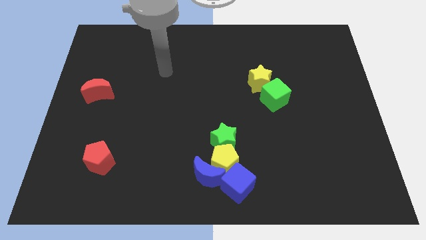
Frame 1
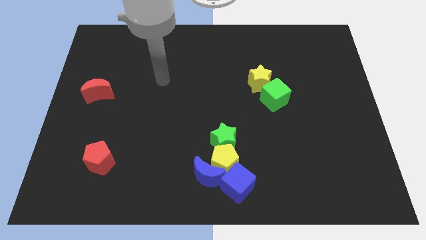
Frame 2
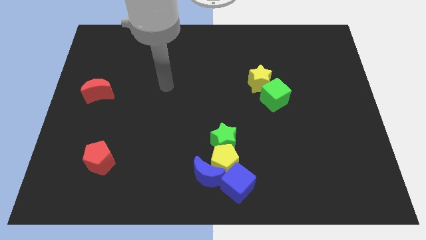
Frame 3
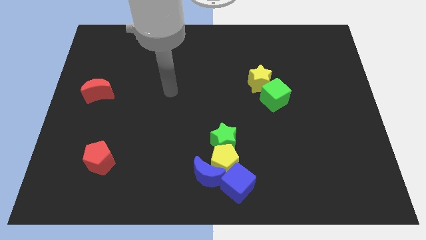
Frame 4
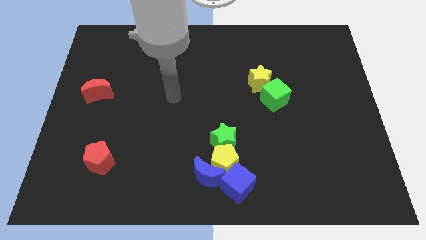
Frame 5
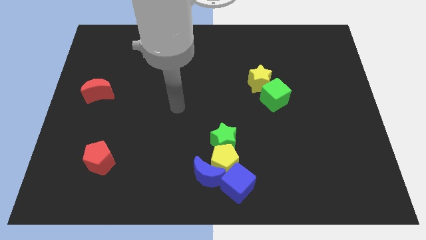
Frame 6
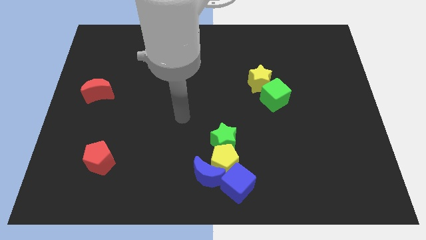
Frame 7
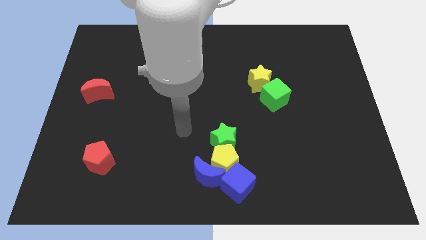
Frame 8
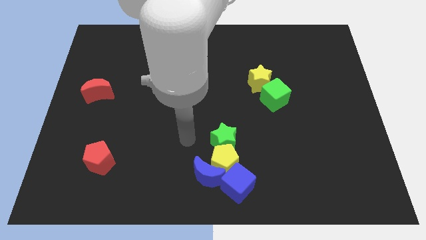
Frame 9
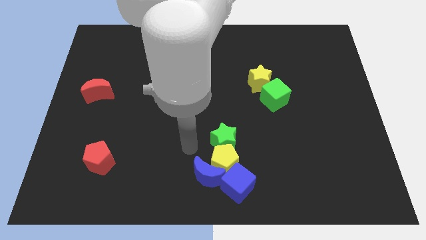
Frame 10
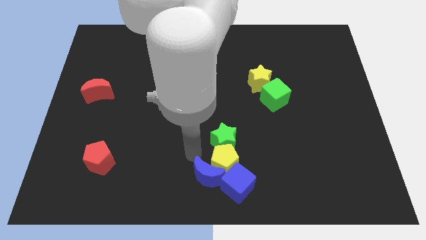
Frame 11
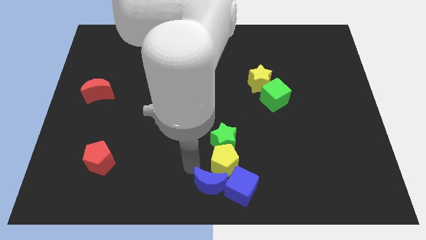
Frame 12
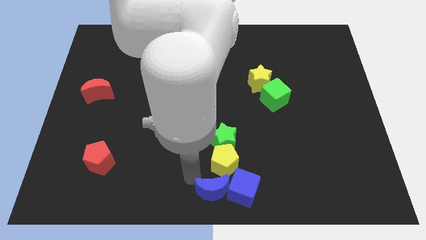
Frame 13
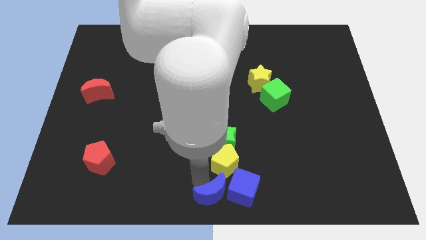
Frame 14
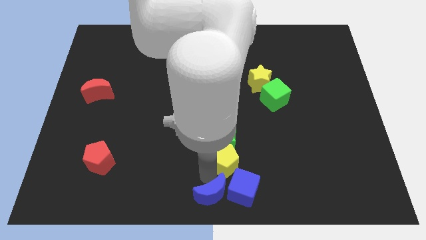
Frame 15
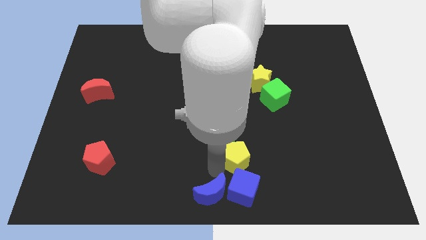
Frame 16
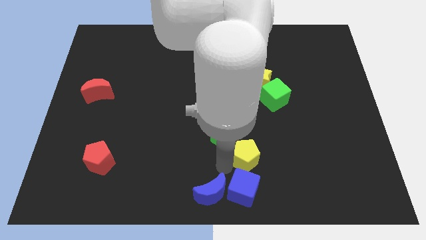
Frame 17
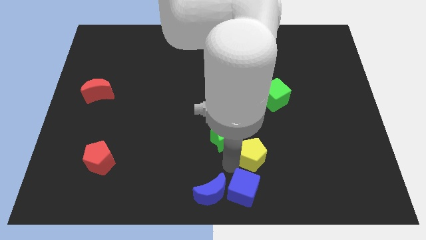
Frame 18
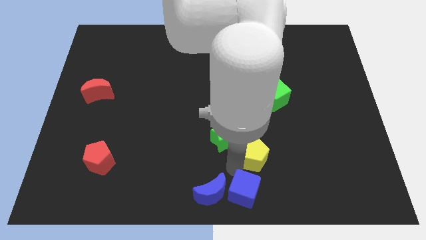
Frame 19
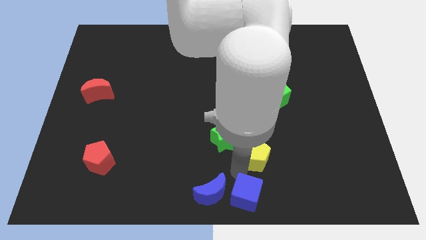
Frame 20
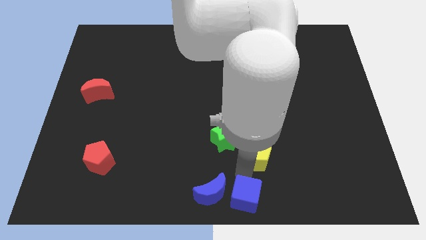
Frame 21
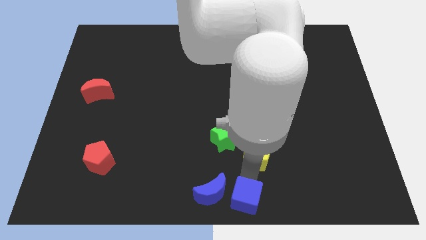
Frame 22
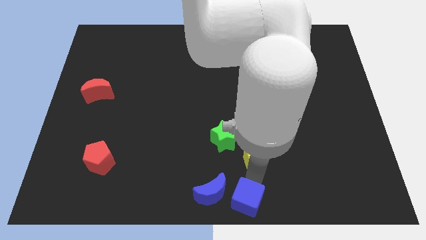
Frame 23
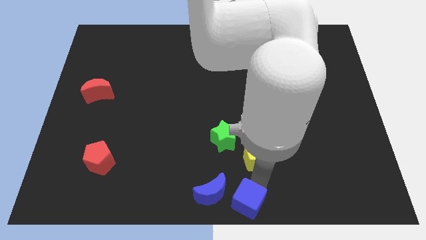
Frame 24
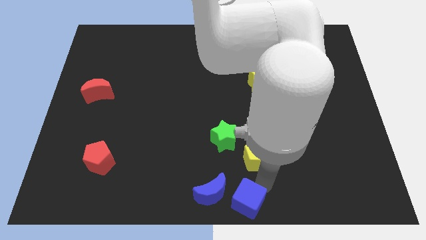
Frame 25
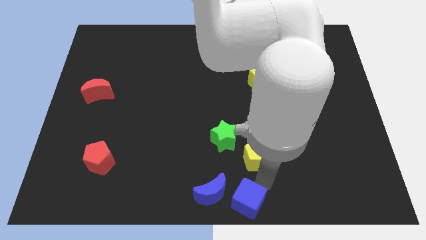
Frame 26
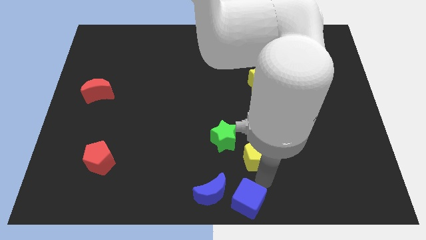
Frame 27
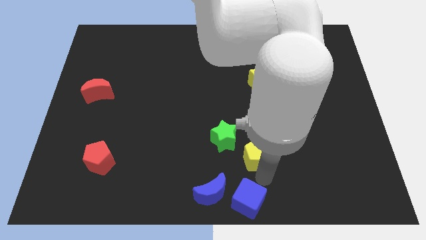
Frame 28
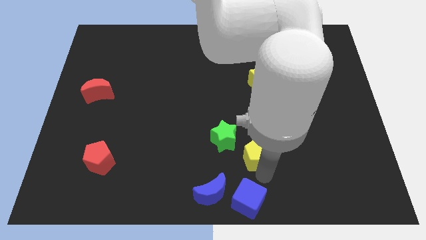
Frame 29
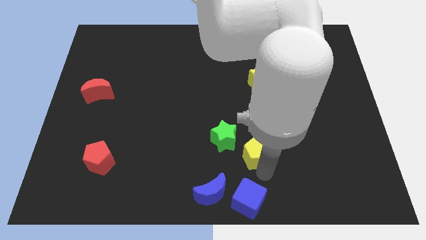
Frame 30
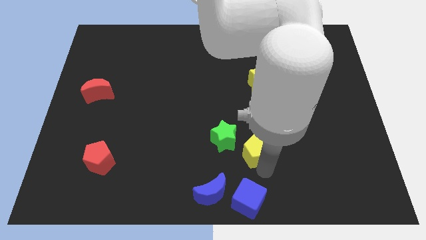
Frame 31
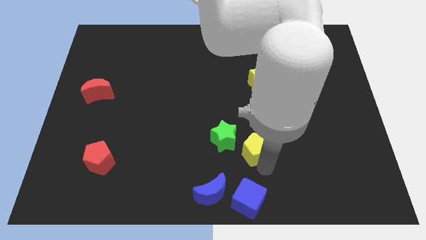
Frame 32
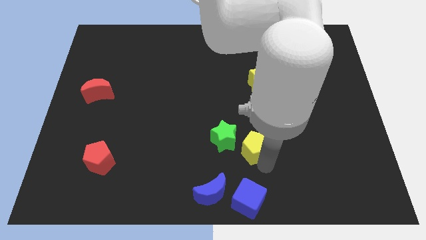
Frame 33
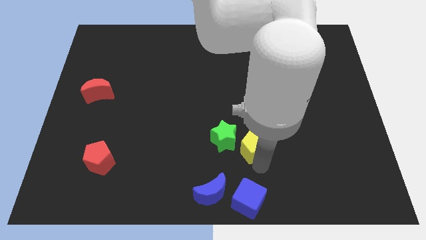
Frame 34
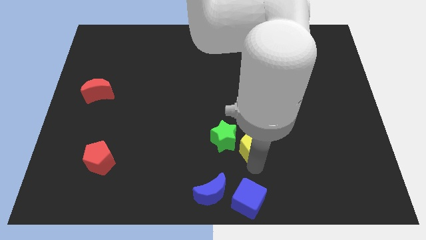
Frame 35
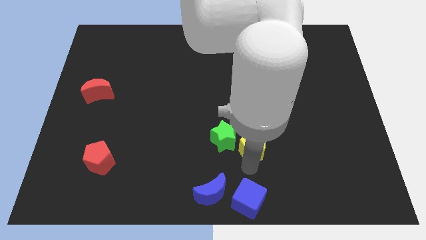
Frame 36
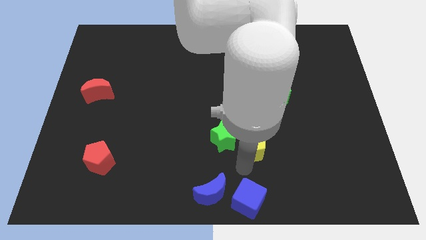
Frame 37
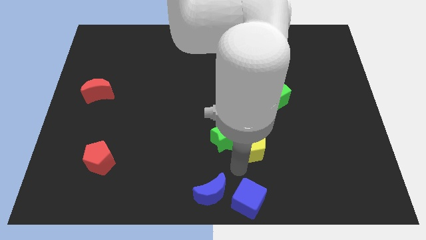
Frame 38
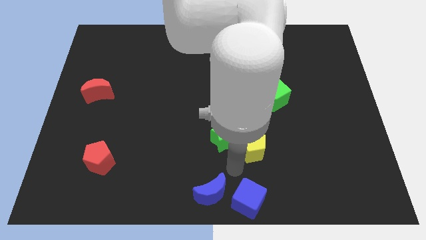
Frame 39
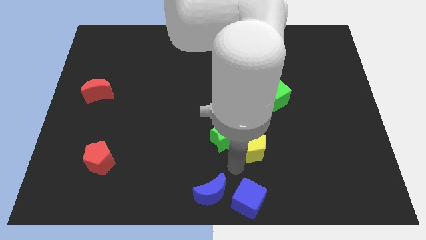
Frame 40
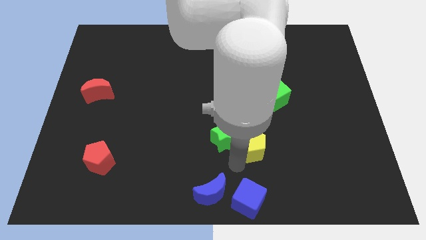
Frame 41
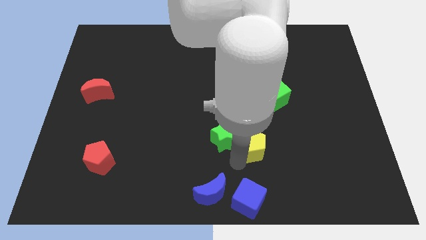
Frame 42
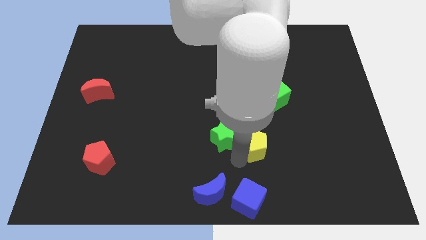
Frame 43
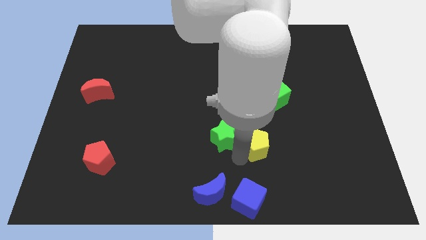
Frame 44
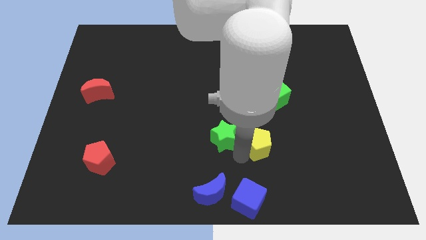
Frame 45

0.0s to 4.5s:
pull the yellow pentagon apart from the blue moon, green star, and blue cube

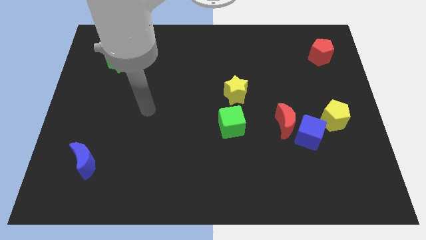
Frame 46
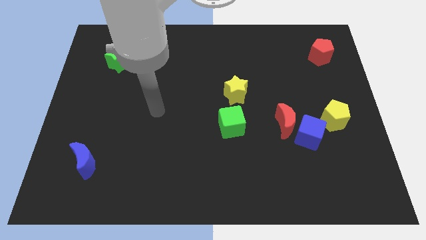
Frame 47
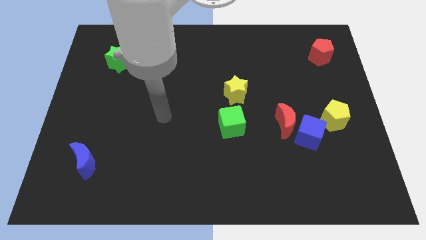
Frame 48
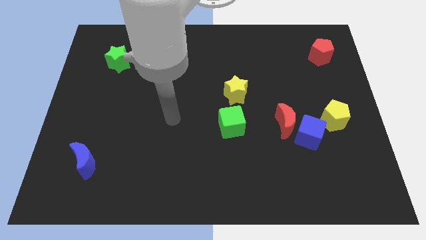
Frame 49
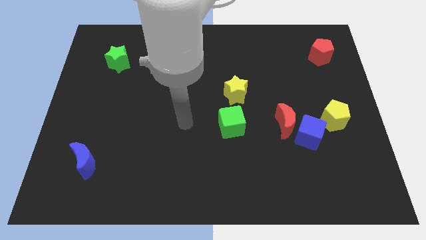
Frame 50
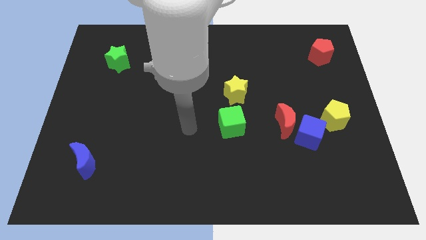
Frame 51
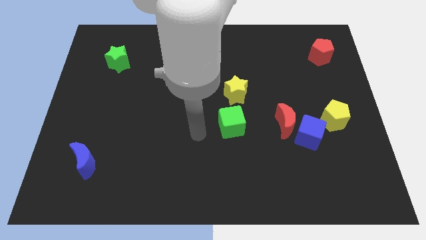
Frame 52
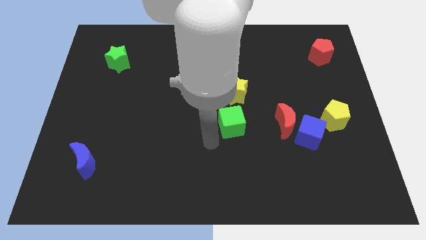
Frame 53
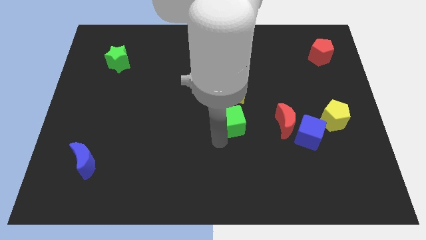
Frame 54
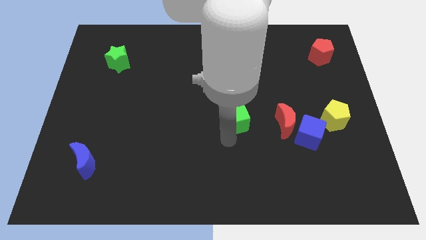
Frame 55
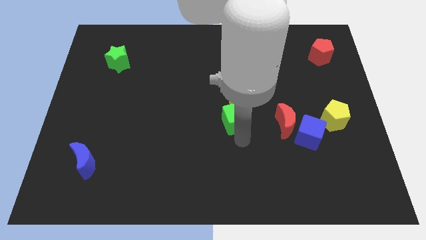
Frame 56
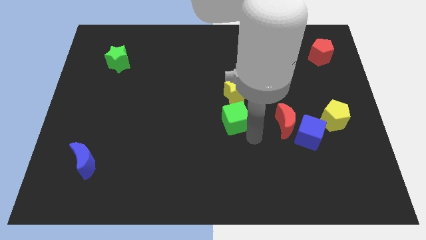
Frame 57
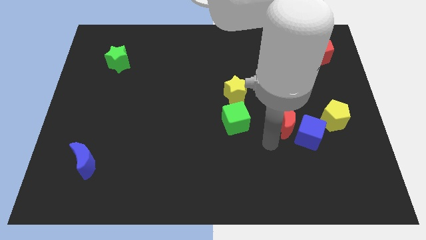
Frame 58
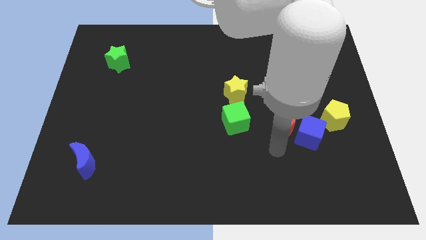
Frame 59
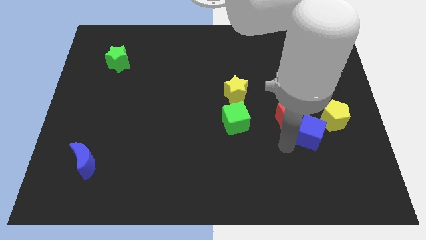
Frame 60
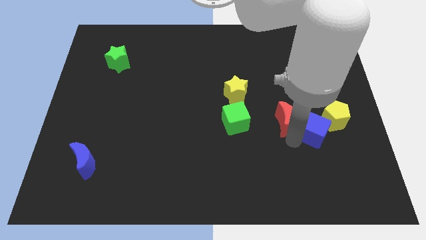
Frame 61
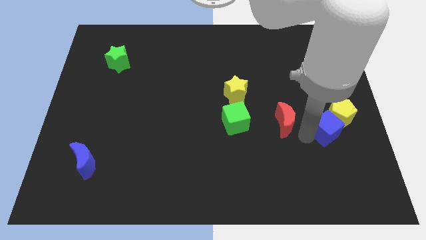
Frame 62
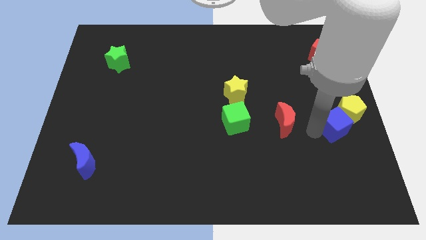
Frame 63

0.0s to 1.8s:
separate the red moon from the blue cube

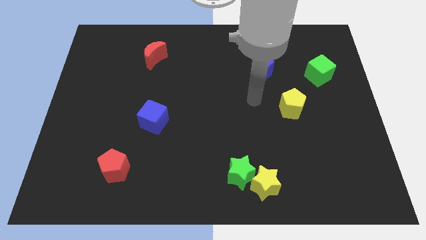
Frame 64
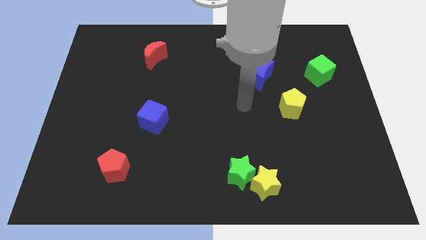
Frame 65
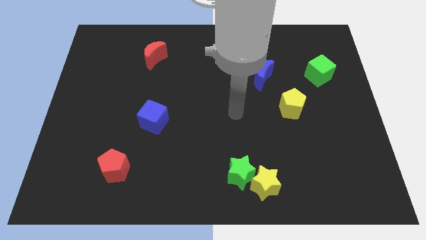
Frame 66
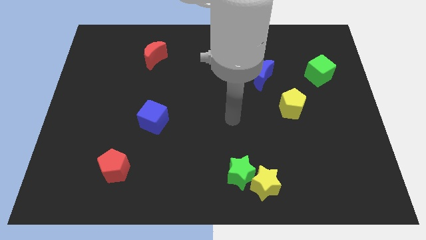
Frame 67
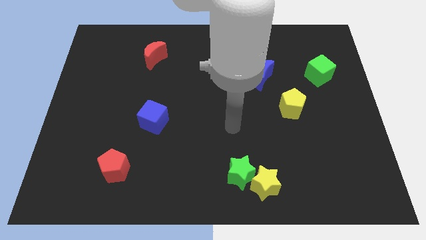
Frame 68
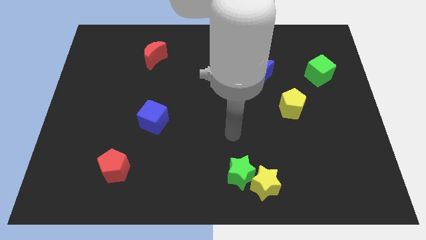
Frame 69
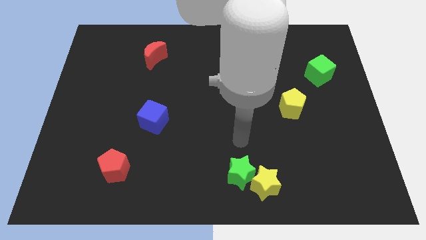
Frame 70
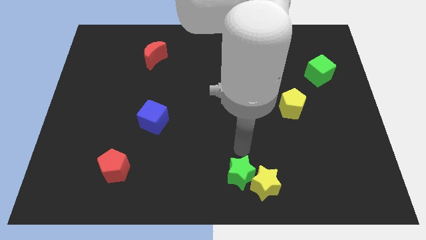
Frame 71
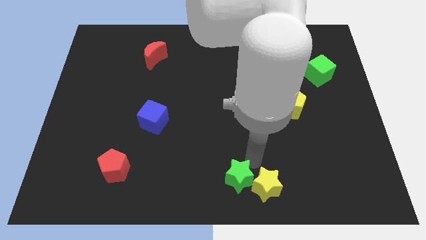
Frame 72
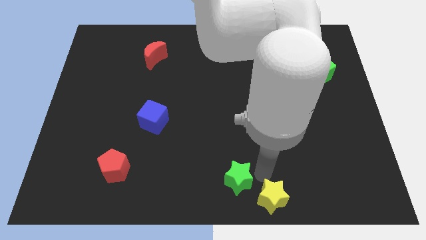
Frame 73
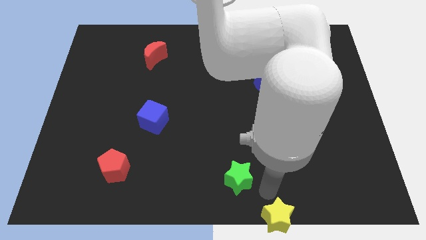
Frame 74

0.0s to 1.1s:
pull the green star apart from the yellow star

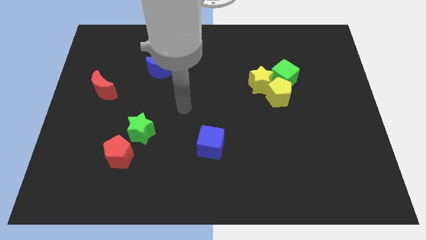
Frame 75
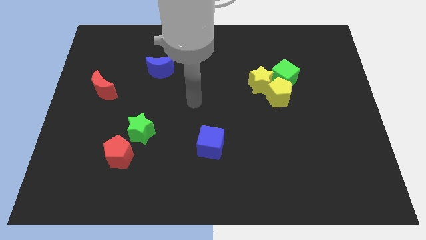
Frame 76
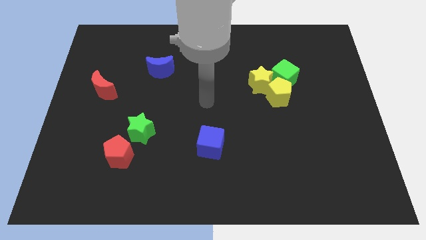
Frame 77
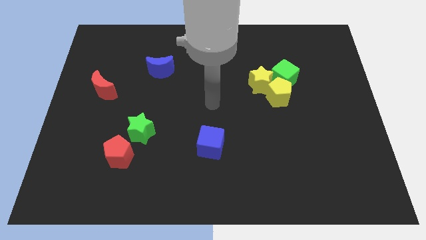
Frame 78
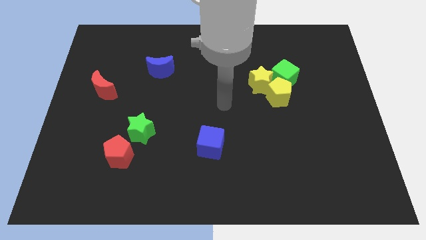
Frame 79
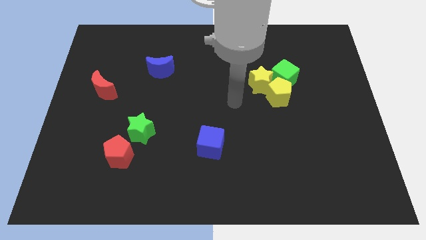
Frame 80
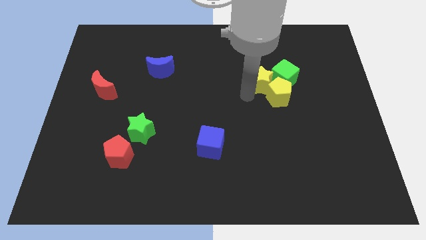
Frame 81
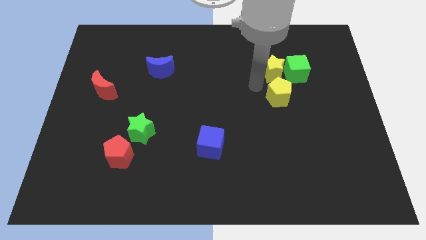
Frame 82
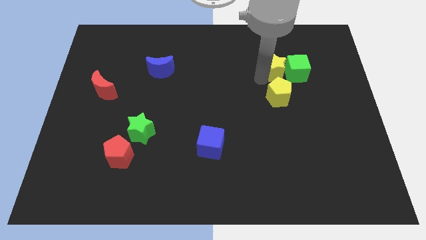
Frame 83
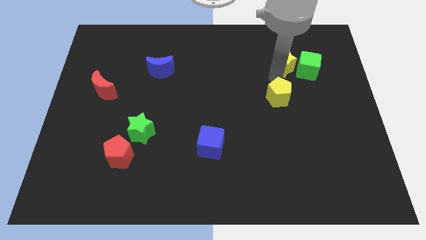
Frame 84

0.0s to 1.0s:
separate the yellow pentagon from the yellow star and green cube

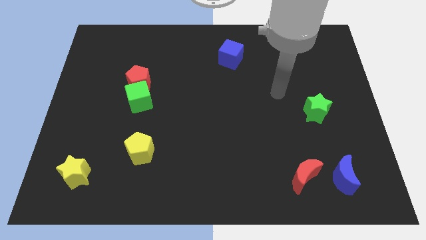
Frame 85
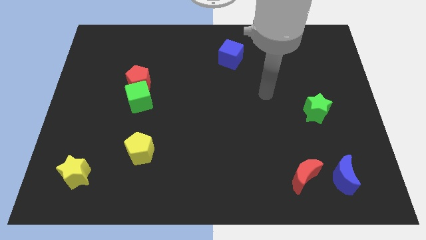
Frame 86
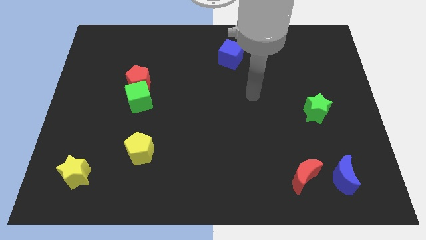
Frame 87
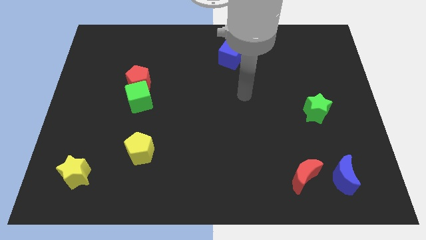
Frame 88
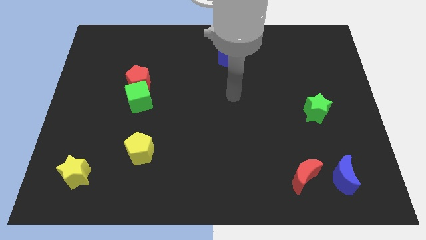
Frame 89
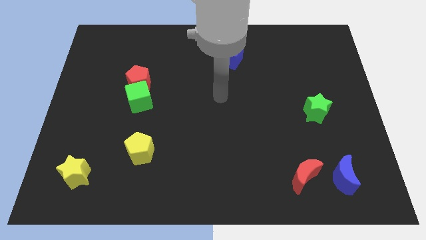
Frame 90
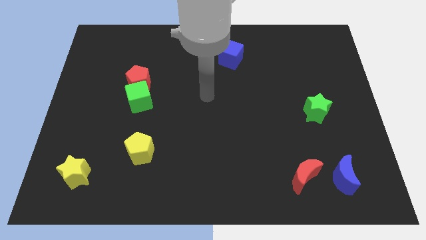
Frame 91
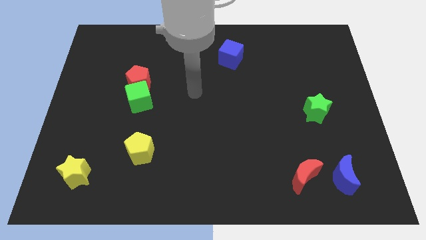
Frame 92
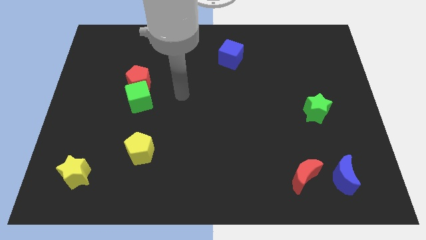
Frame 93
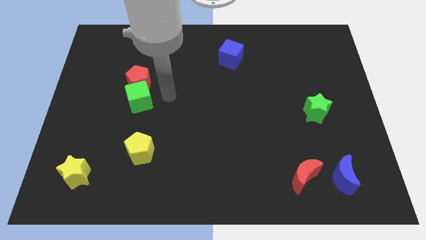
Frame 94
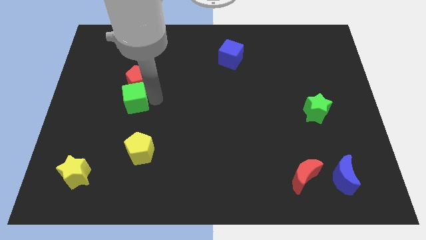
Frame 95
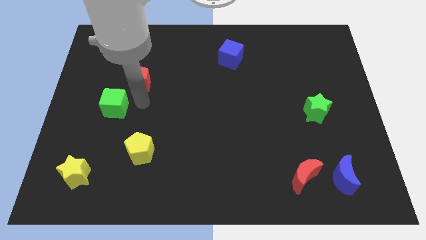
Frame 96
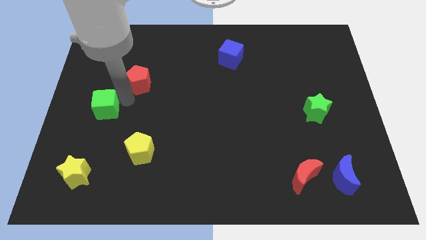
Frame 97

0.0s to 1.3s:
separate the red pentagon from the green cube
